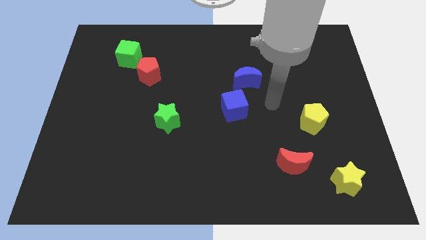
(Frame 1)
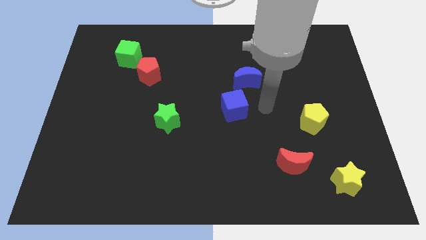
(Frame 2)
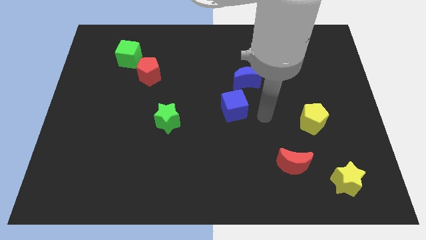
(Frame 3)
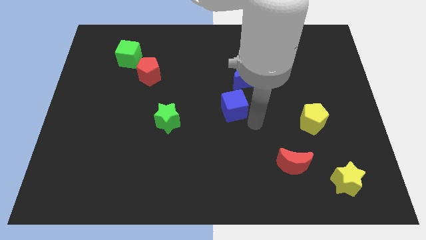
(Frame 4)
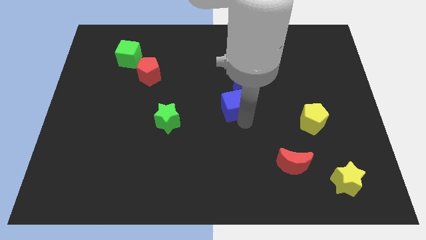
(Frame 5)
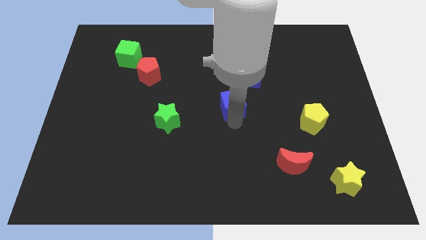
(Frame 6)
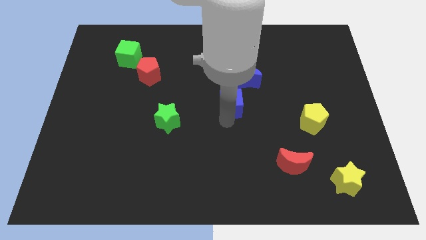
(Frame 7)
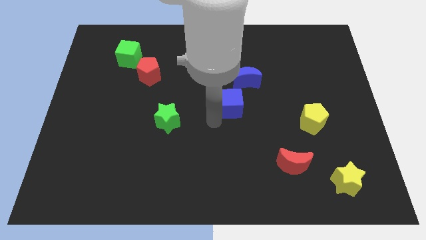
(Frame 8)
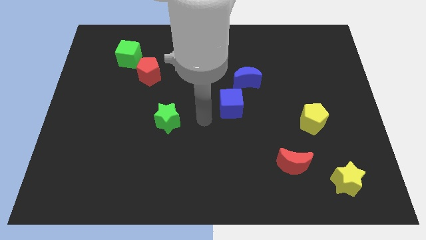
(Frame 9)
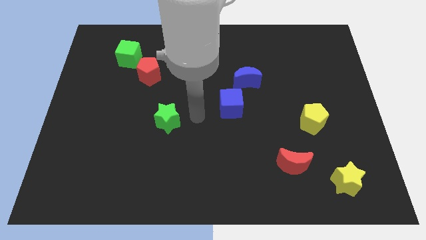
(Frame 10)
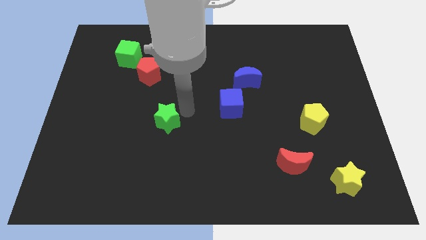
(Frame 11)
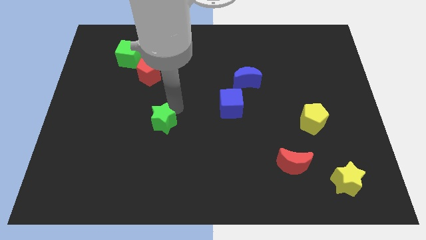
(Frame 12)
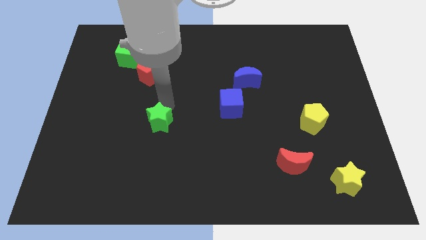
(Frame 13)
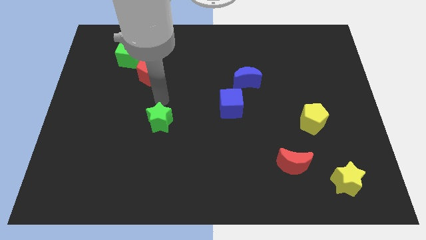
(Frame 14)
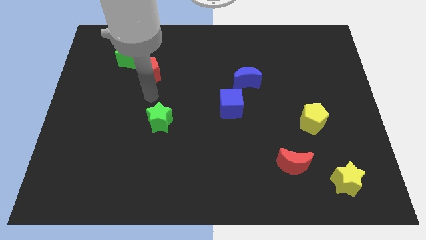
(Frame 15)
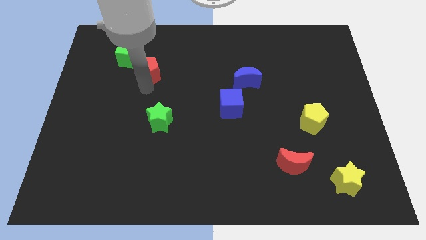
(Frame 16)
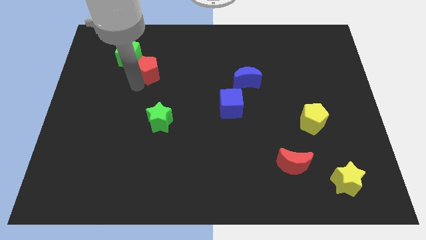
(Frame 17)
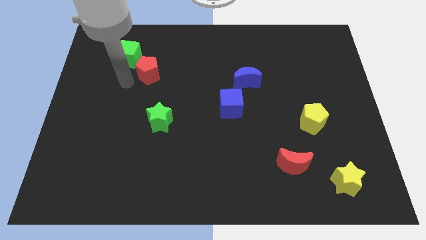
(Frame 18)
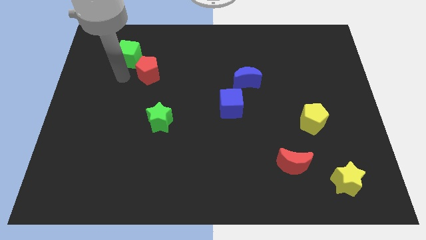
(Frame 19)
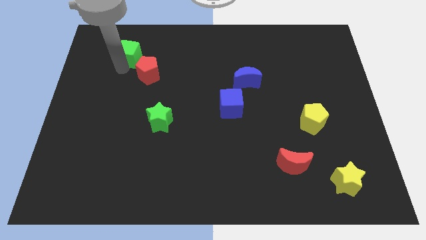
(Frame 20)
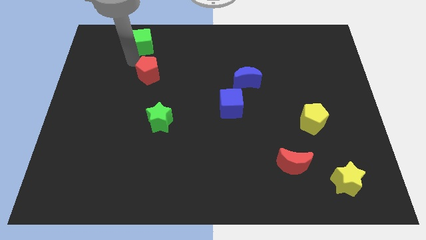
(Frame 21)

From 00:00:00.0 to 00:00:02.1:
move the red pentagon away from the green cube

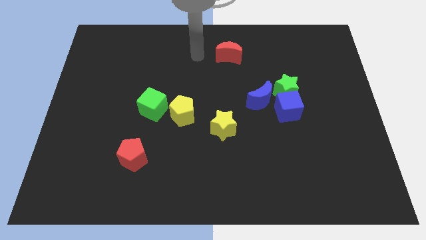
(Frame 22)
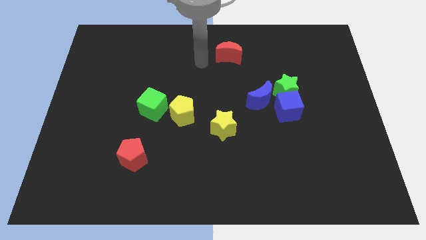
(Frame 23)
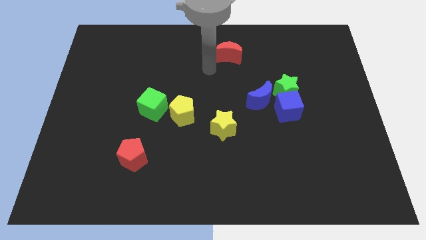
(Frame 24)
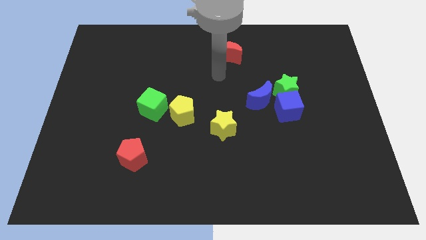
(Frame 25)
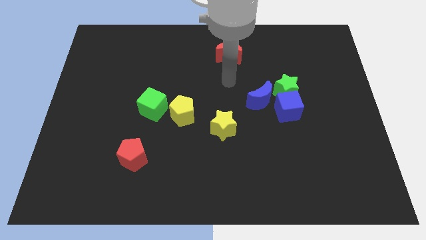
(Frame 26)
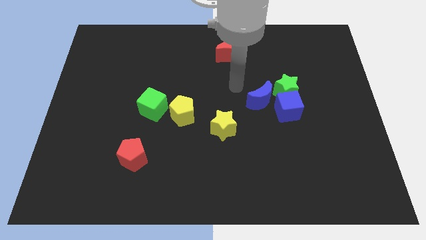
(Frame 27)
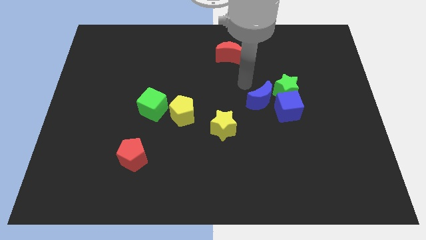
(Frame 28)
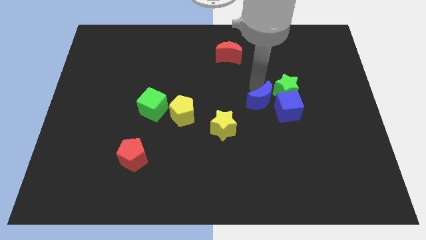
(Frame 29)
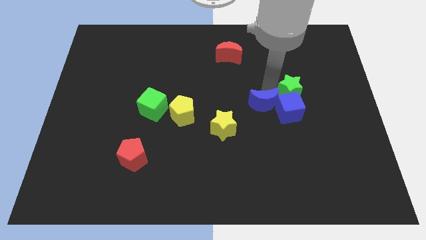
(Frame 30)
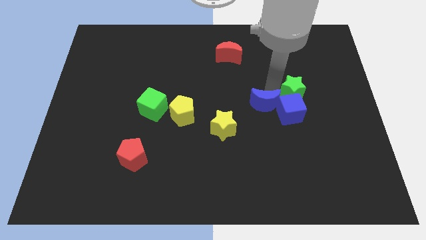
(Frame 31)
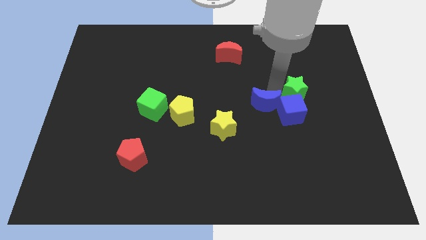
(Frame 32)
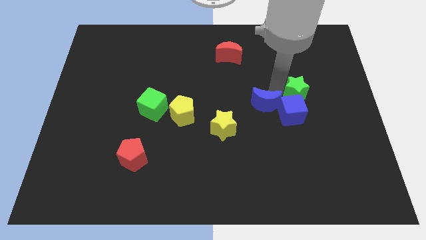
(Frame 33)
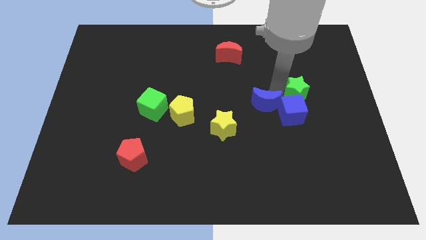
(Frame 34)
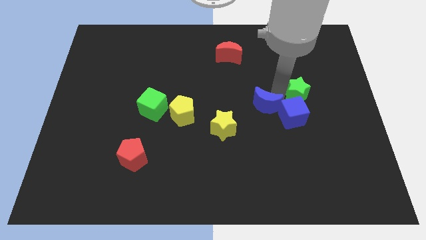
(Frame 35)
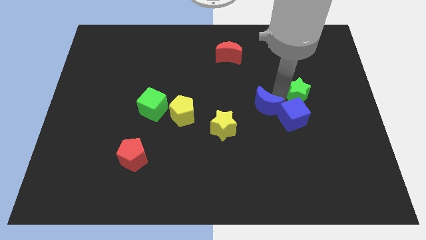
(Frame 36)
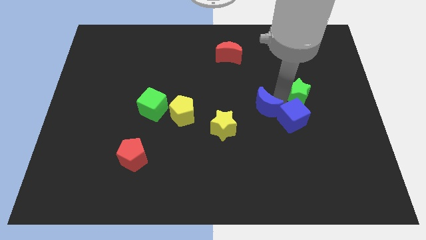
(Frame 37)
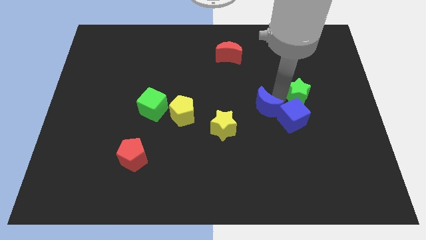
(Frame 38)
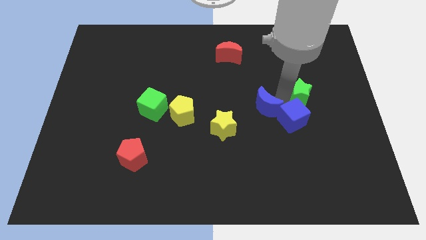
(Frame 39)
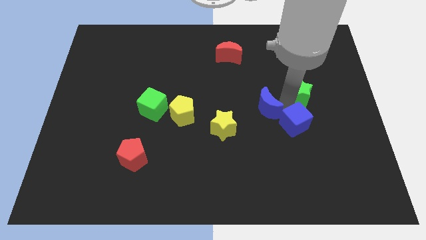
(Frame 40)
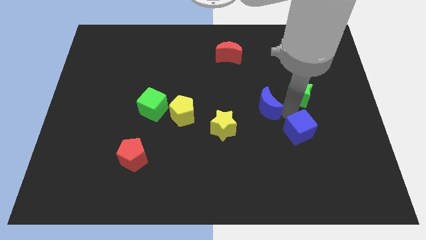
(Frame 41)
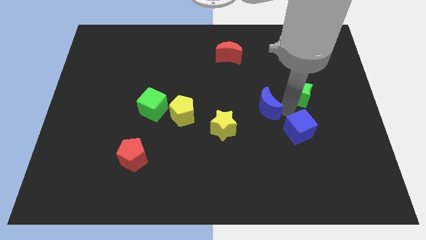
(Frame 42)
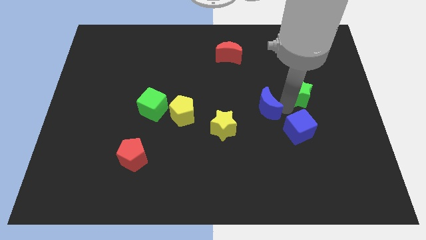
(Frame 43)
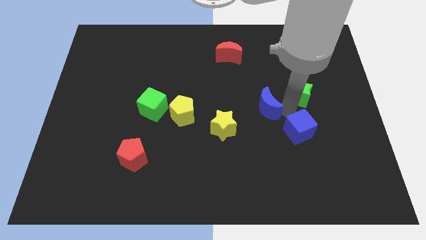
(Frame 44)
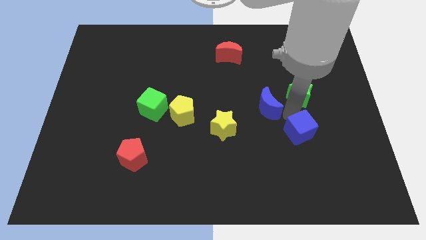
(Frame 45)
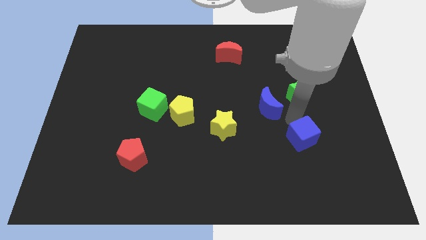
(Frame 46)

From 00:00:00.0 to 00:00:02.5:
move the blue cube away from the green star and blue moon

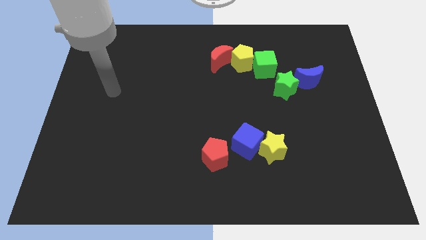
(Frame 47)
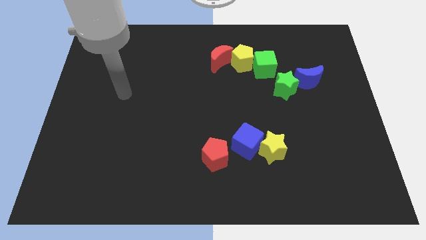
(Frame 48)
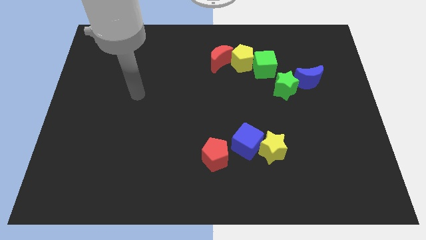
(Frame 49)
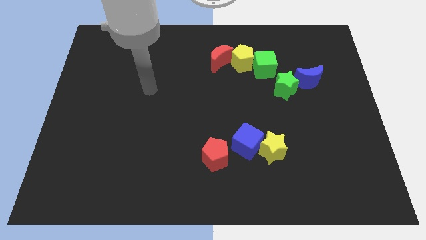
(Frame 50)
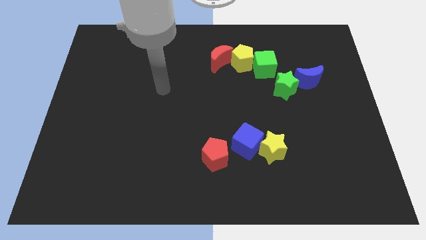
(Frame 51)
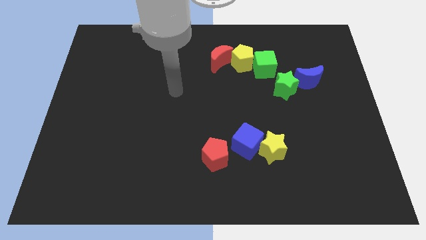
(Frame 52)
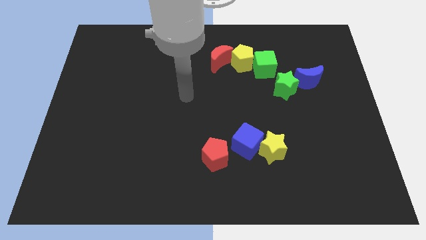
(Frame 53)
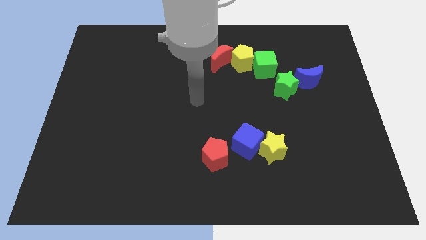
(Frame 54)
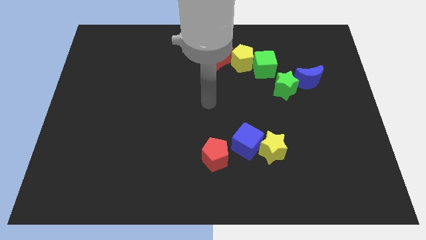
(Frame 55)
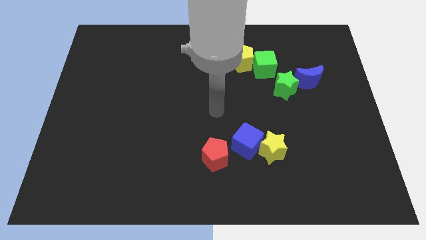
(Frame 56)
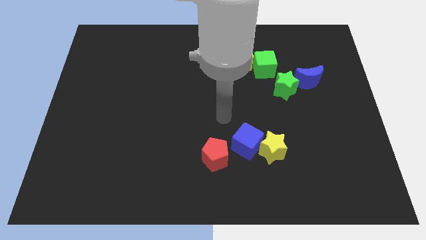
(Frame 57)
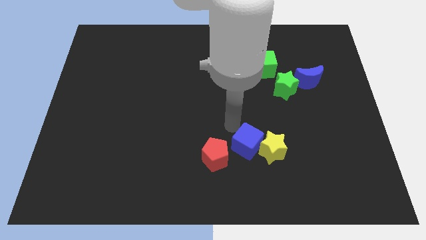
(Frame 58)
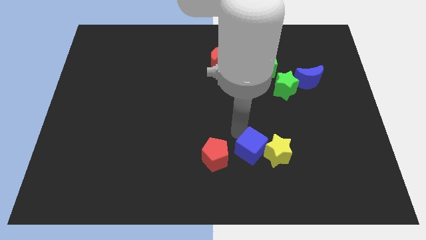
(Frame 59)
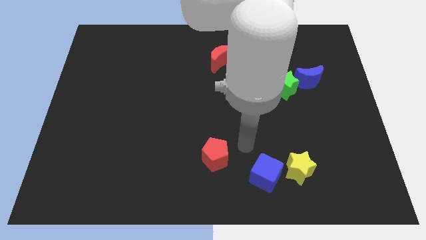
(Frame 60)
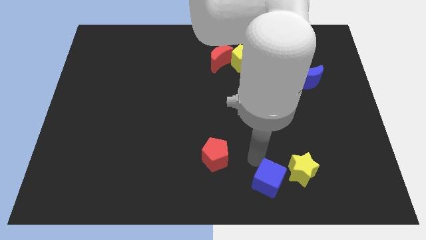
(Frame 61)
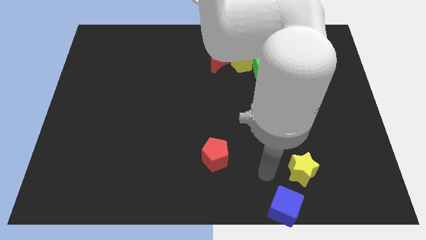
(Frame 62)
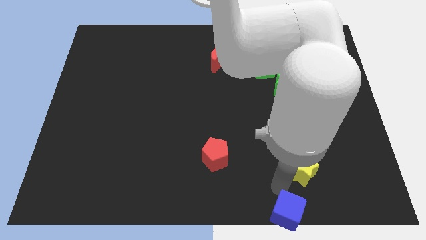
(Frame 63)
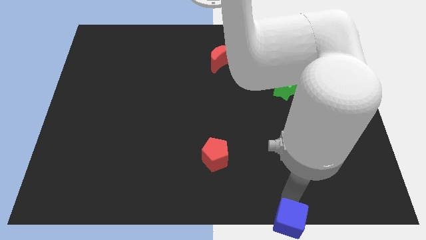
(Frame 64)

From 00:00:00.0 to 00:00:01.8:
separate the yellow star from the blue cube

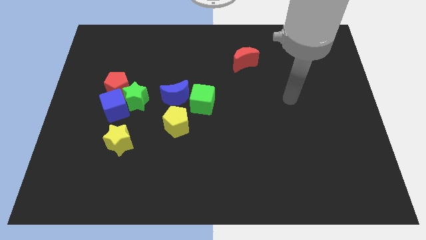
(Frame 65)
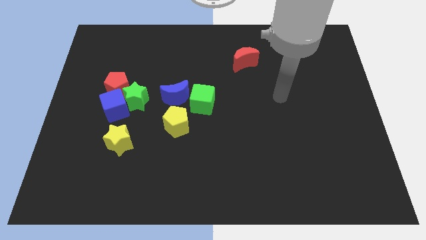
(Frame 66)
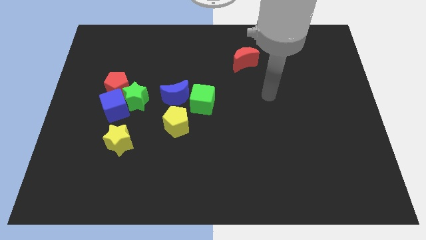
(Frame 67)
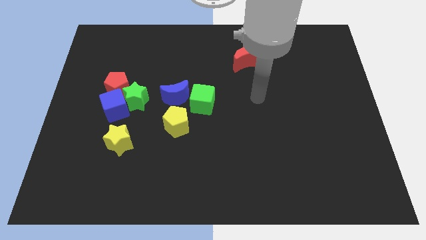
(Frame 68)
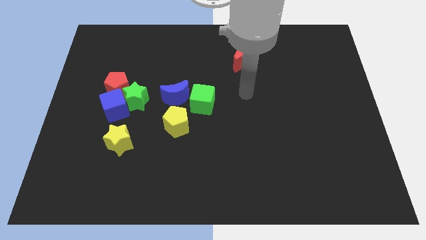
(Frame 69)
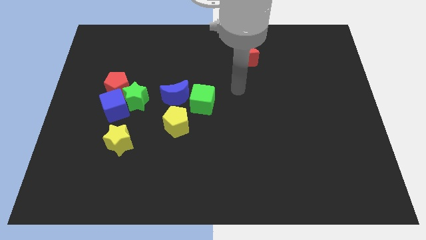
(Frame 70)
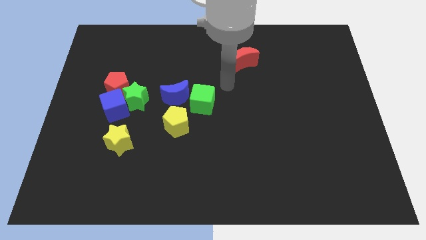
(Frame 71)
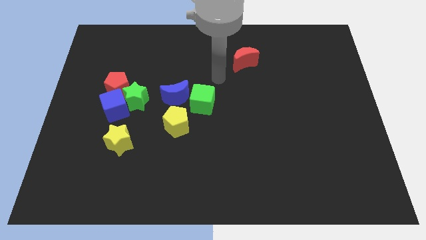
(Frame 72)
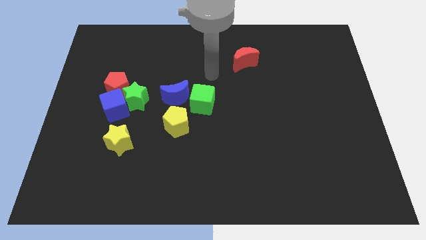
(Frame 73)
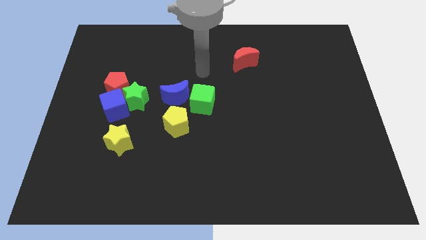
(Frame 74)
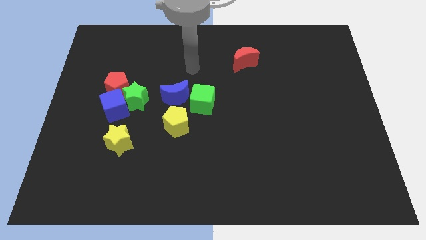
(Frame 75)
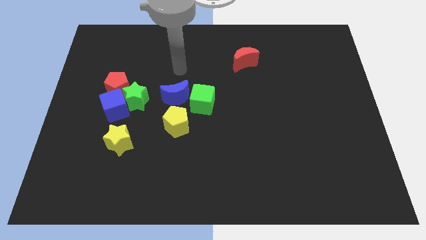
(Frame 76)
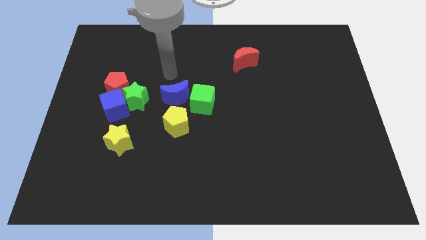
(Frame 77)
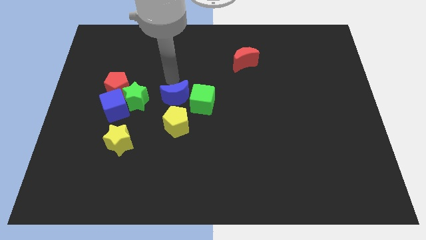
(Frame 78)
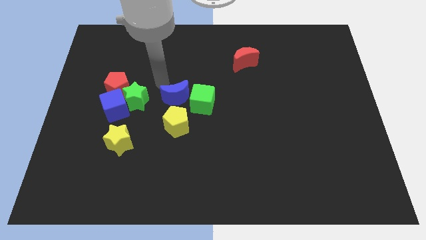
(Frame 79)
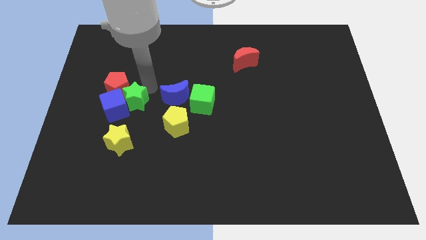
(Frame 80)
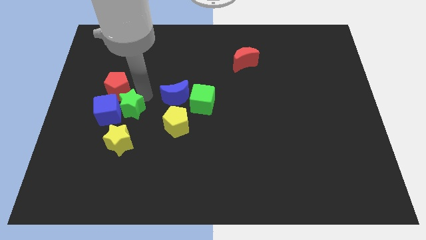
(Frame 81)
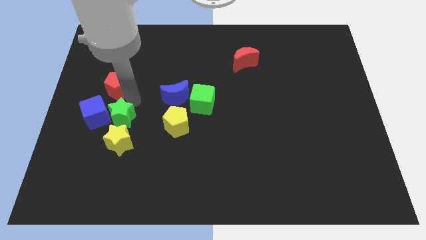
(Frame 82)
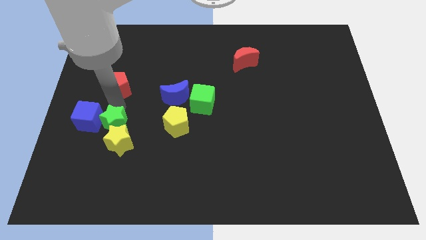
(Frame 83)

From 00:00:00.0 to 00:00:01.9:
pull the red pentagon apart from the blue cube and green star

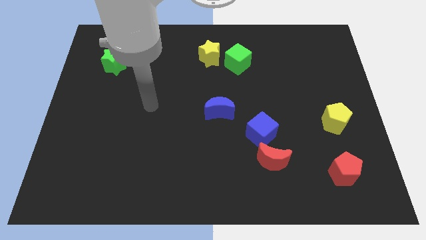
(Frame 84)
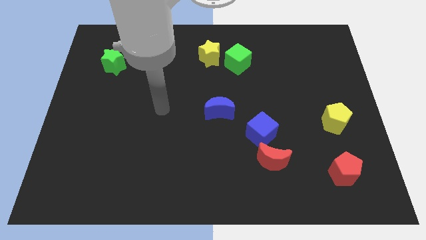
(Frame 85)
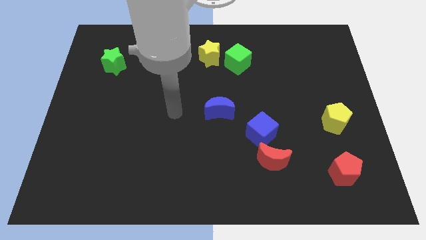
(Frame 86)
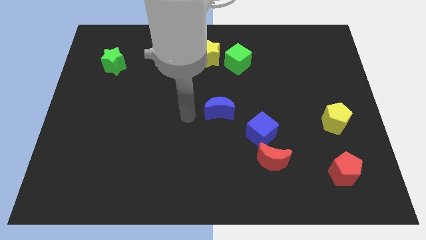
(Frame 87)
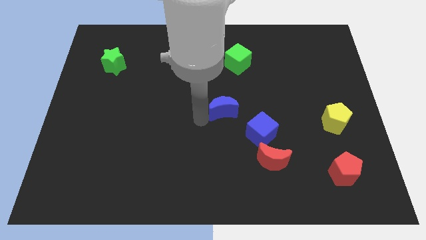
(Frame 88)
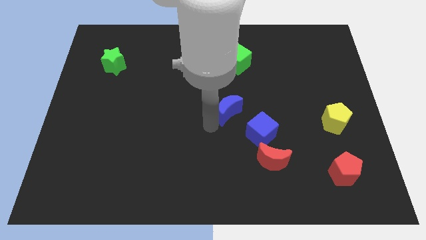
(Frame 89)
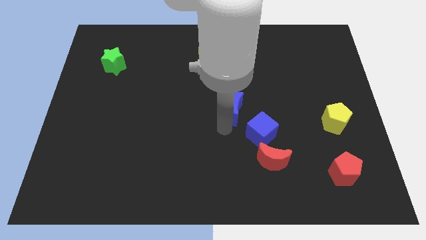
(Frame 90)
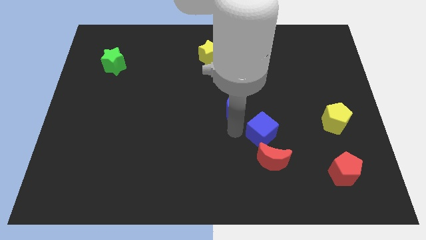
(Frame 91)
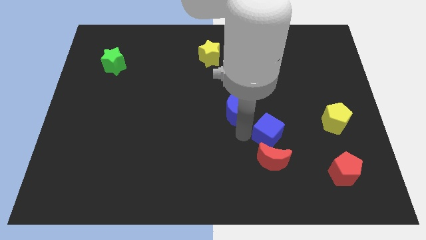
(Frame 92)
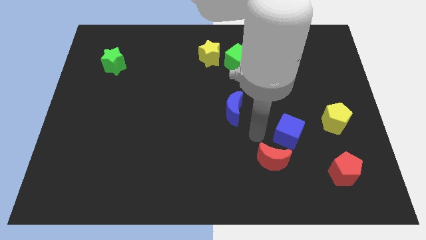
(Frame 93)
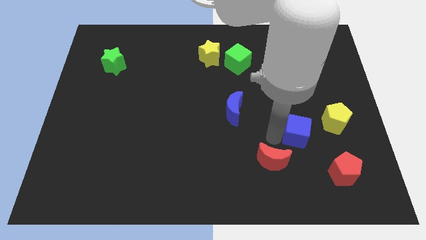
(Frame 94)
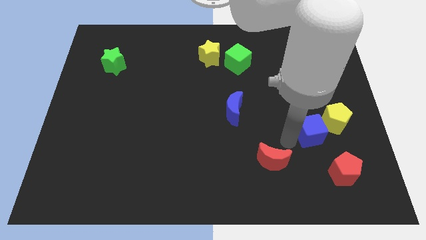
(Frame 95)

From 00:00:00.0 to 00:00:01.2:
move the red moon away from the blue cube
